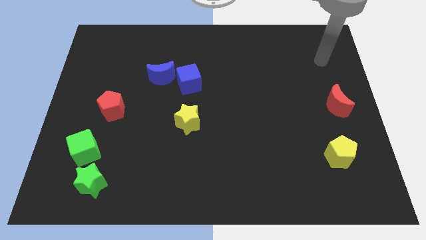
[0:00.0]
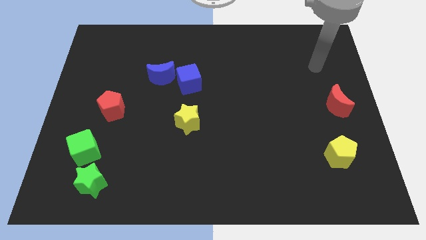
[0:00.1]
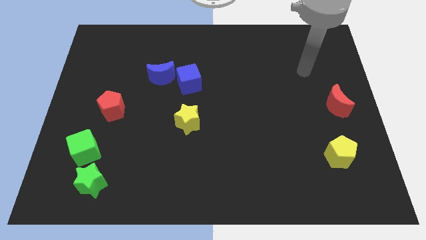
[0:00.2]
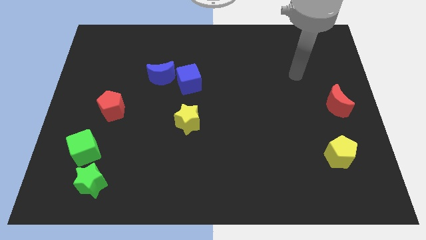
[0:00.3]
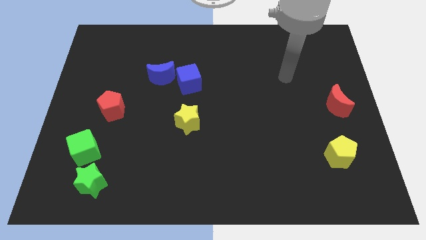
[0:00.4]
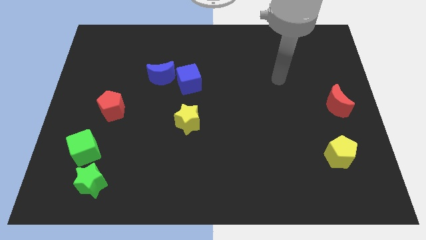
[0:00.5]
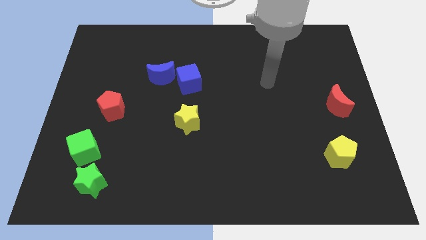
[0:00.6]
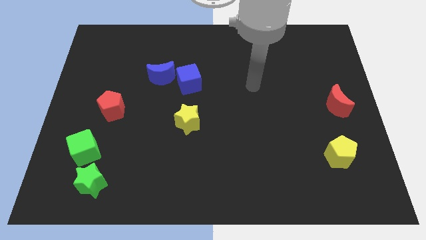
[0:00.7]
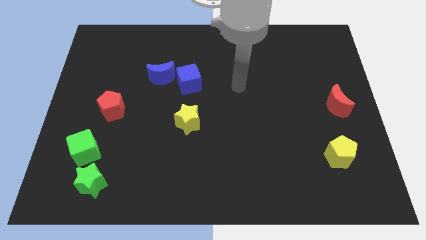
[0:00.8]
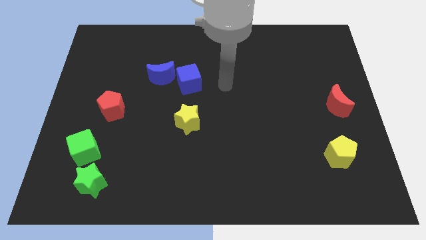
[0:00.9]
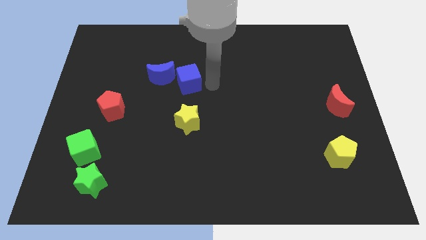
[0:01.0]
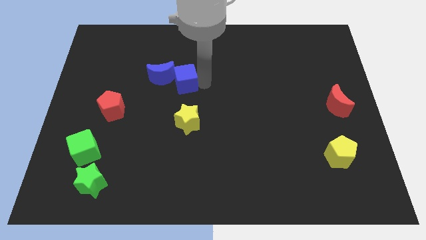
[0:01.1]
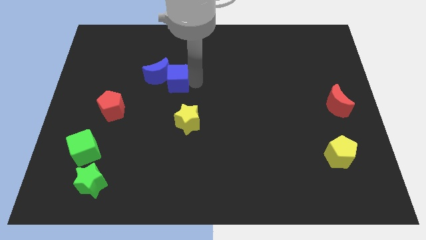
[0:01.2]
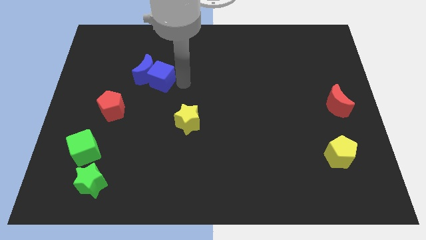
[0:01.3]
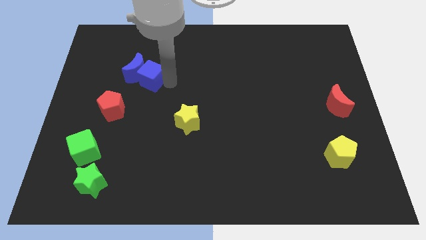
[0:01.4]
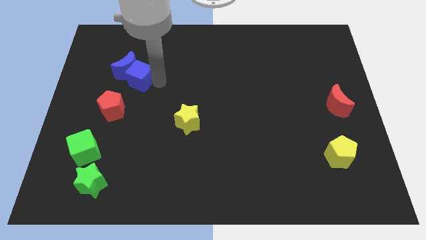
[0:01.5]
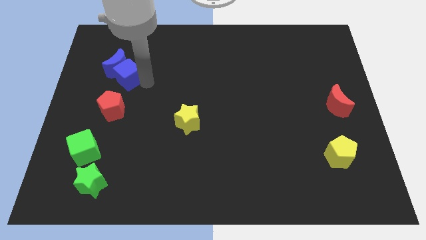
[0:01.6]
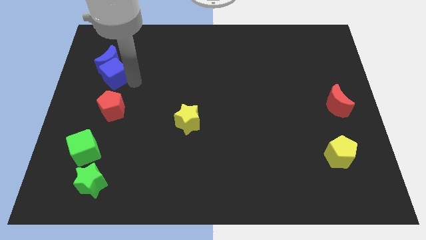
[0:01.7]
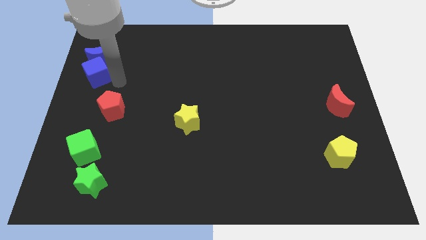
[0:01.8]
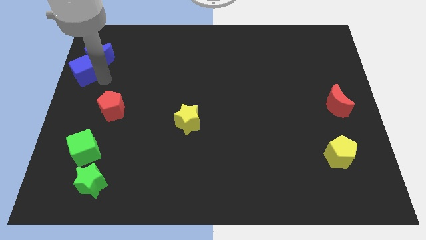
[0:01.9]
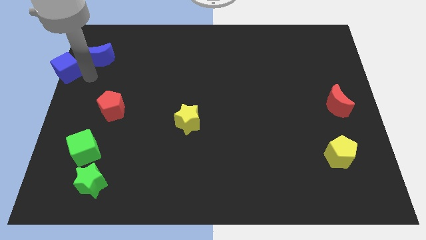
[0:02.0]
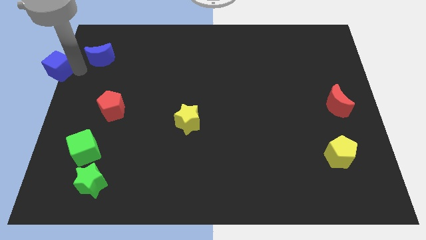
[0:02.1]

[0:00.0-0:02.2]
pull the blue moon apart from the blue cube

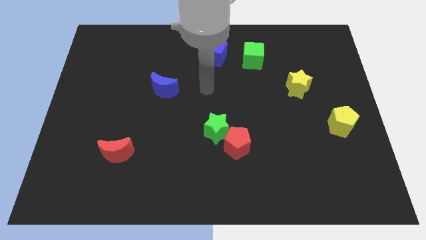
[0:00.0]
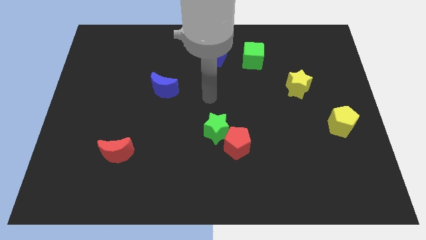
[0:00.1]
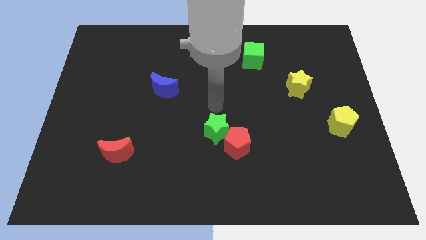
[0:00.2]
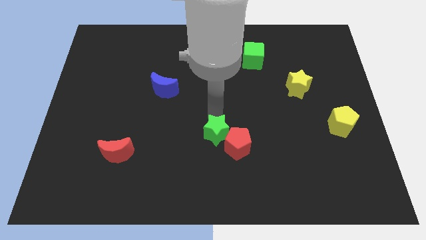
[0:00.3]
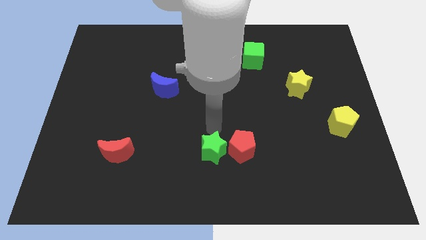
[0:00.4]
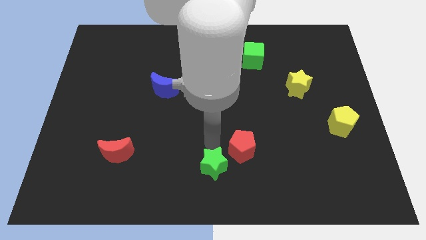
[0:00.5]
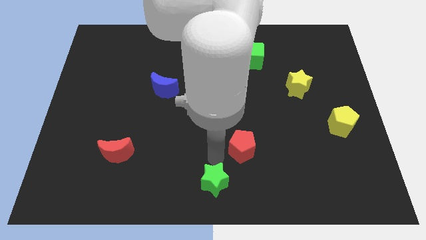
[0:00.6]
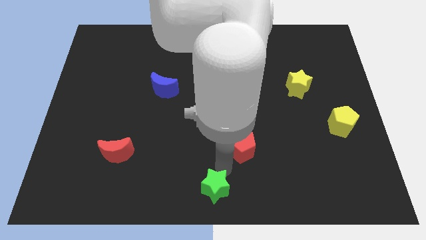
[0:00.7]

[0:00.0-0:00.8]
pull the red pentagon apart from the green star

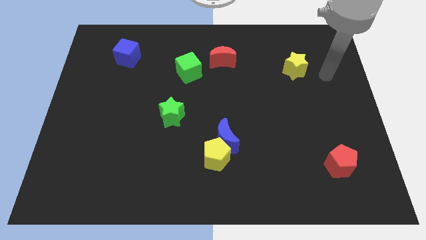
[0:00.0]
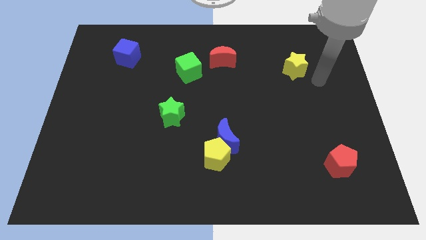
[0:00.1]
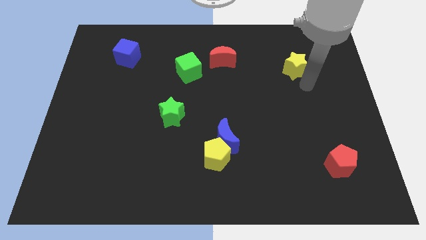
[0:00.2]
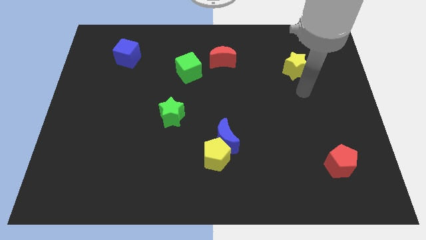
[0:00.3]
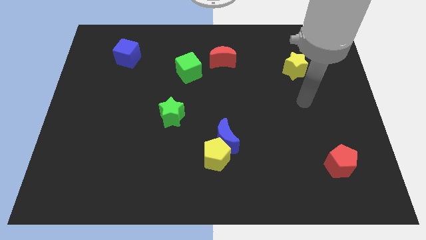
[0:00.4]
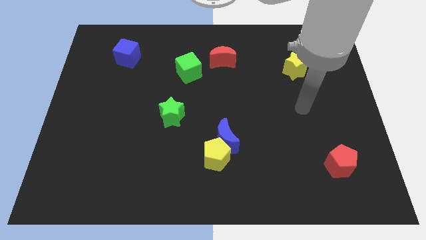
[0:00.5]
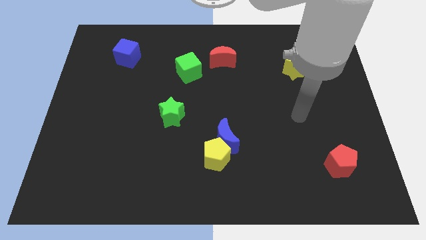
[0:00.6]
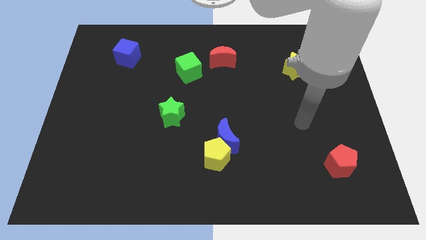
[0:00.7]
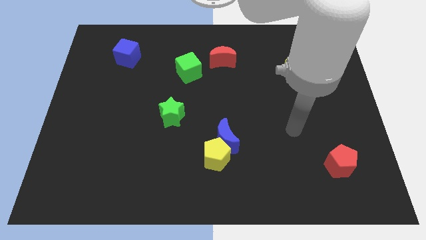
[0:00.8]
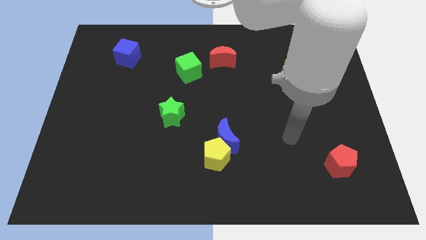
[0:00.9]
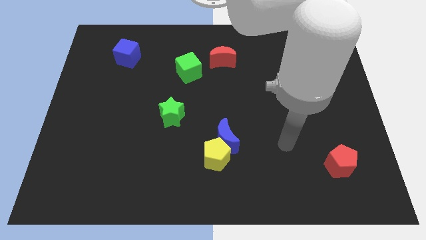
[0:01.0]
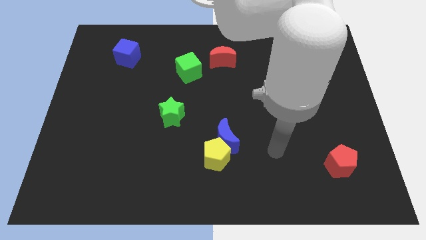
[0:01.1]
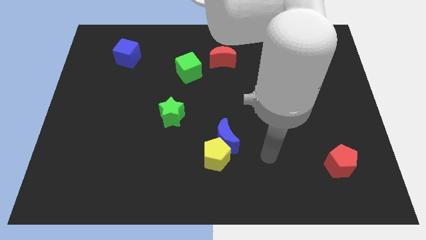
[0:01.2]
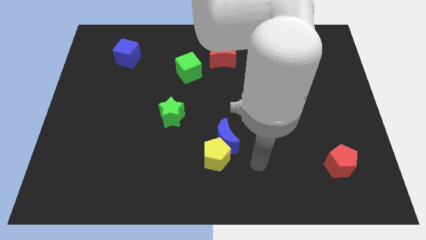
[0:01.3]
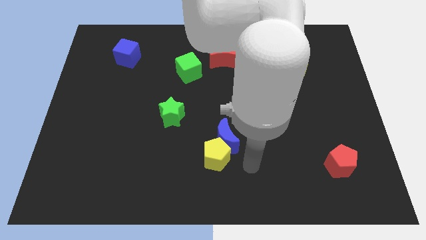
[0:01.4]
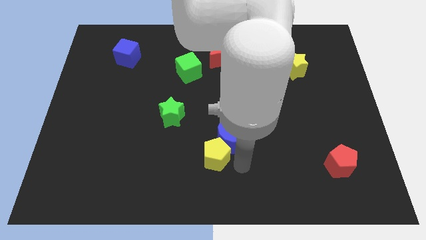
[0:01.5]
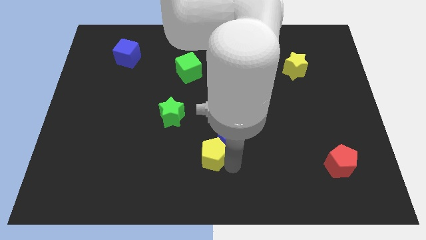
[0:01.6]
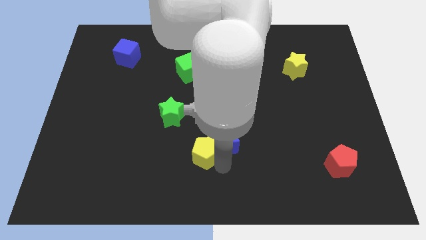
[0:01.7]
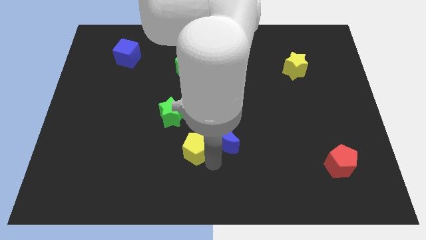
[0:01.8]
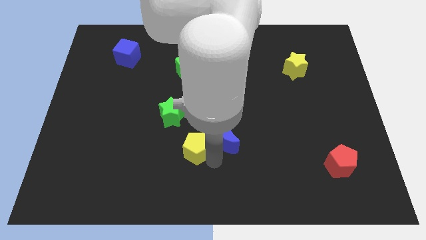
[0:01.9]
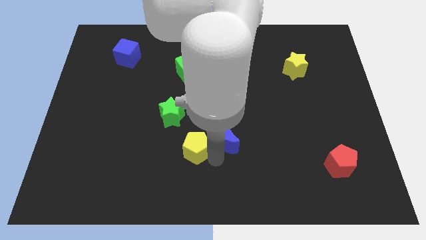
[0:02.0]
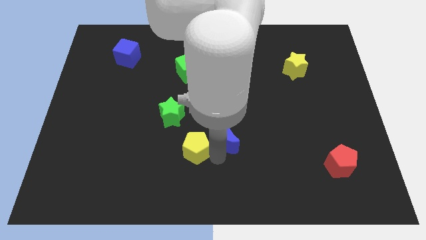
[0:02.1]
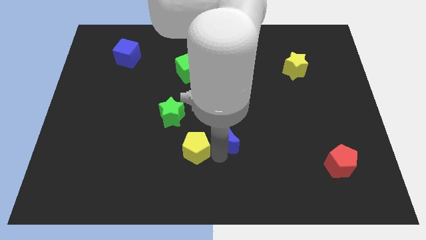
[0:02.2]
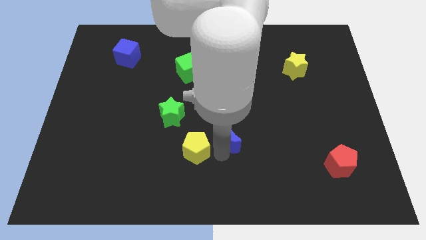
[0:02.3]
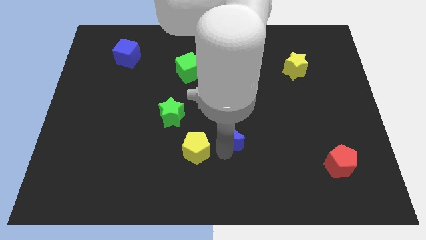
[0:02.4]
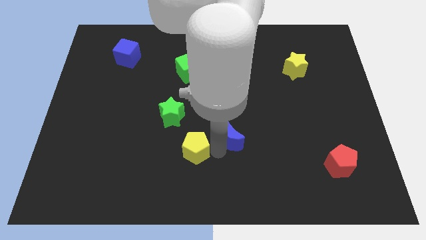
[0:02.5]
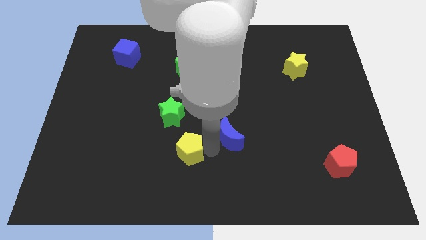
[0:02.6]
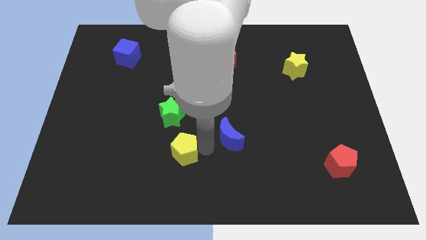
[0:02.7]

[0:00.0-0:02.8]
pull the blue moon apart from the yellow pentagon

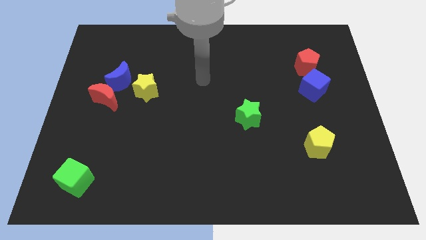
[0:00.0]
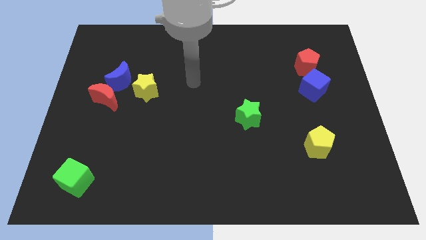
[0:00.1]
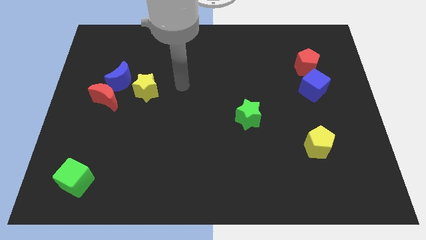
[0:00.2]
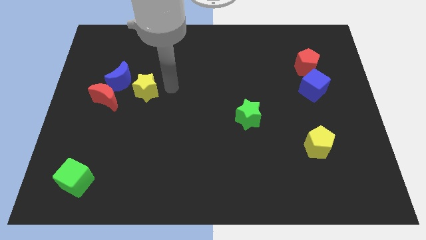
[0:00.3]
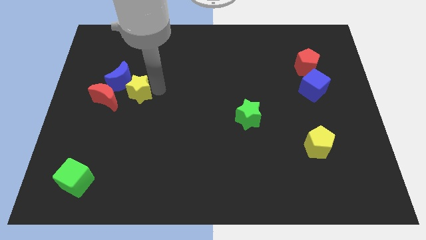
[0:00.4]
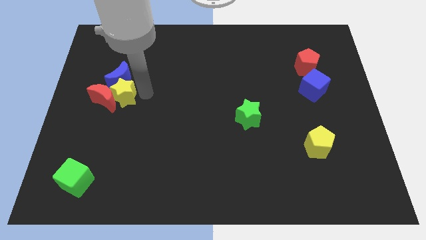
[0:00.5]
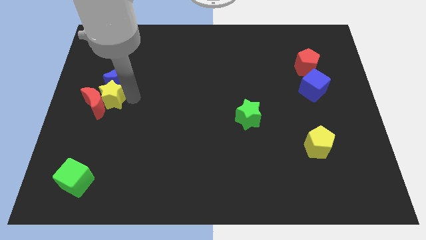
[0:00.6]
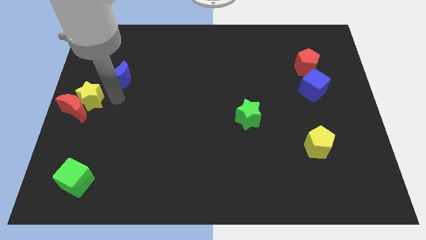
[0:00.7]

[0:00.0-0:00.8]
move the blue moon away from the red moon and yellow star

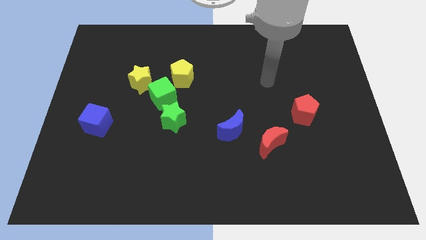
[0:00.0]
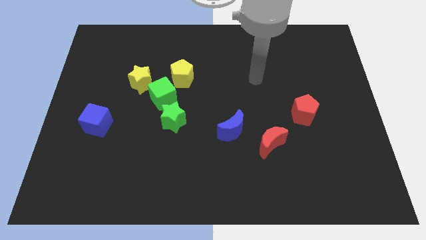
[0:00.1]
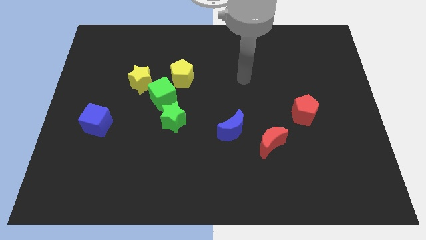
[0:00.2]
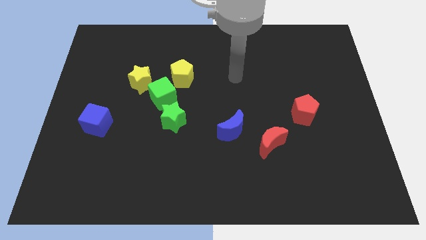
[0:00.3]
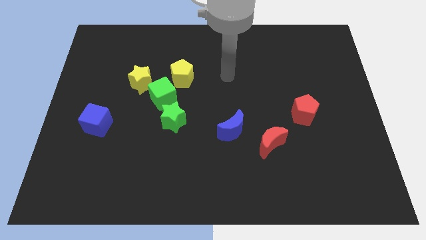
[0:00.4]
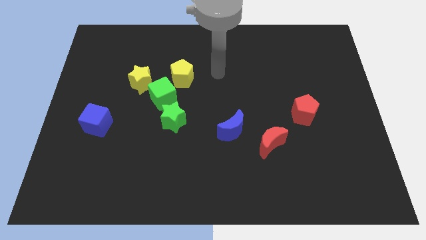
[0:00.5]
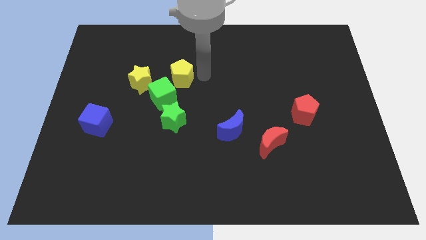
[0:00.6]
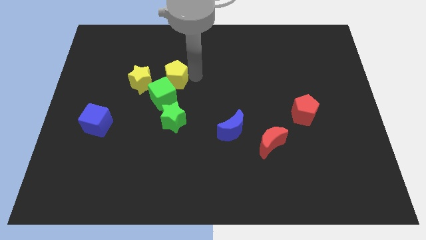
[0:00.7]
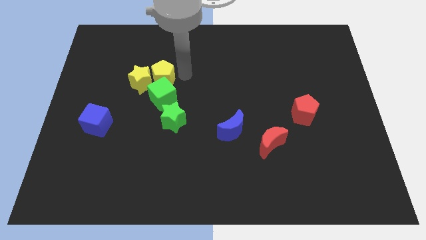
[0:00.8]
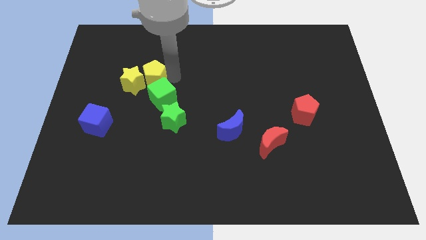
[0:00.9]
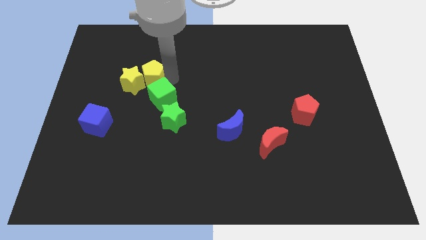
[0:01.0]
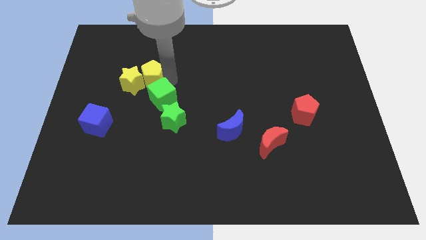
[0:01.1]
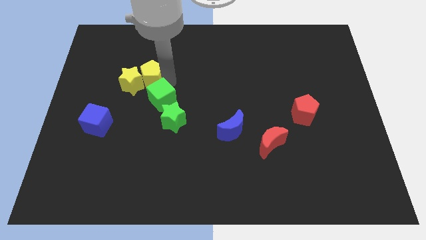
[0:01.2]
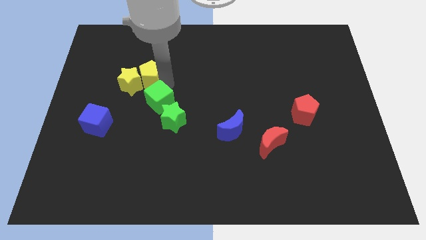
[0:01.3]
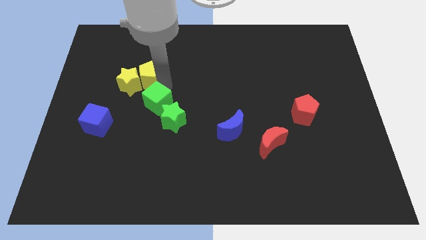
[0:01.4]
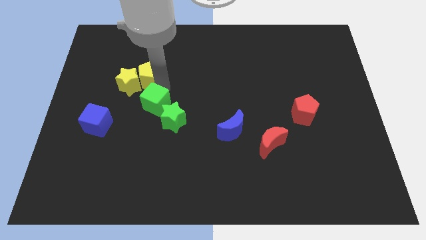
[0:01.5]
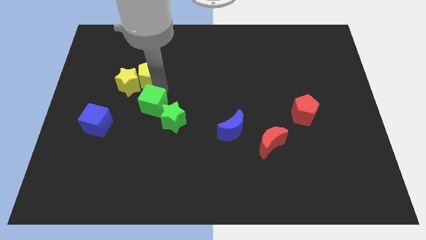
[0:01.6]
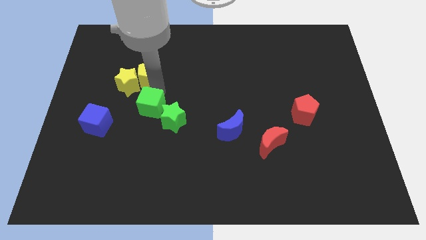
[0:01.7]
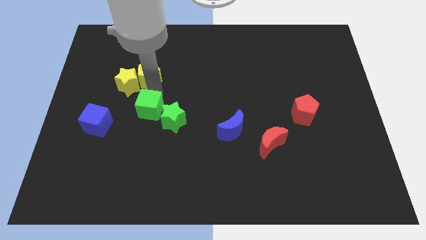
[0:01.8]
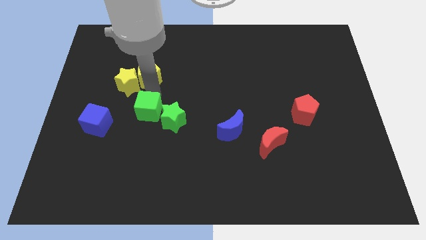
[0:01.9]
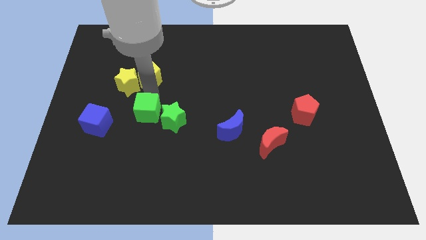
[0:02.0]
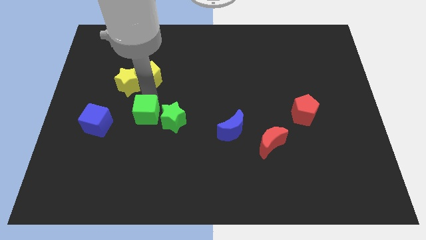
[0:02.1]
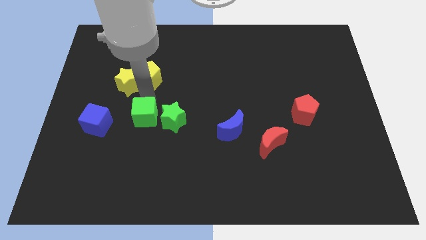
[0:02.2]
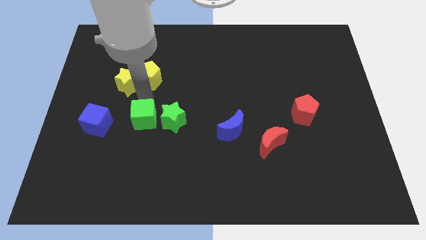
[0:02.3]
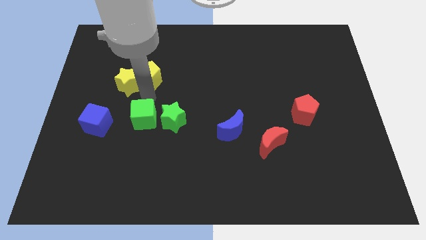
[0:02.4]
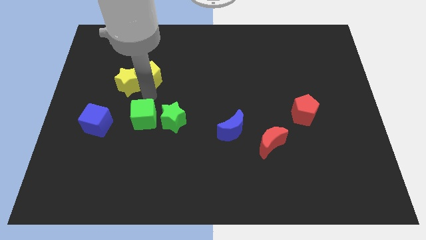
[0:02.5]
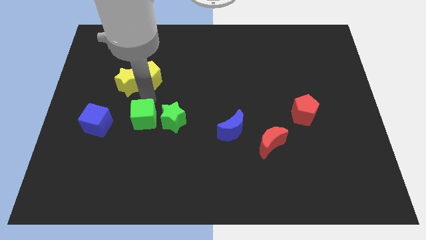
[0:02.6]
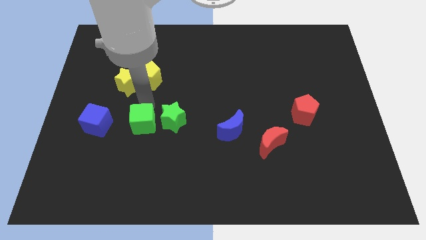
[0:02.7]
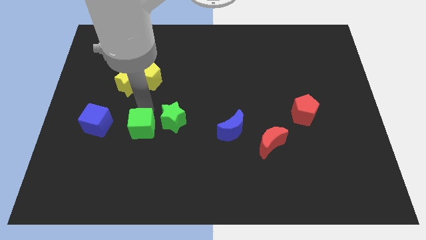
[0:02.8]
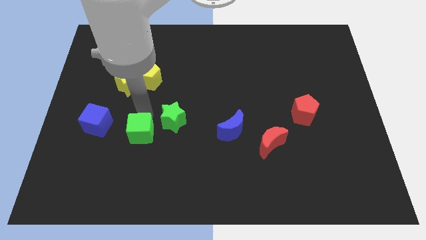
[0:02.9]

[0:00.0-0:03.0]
pull the green cube apart from the yellow star, yellow pentagon, and green star
